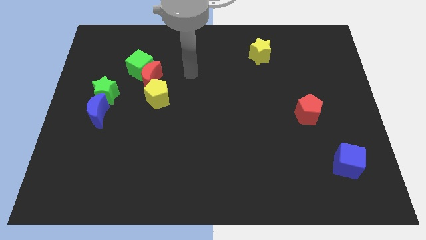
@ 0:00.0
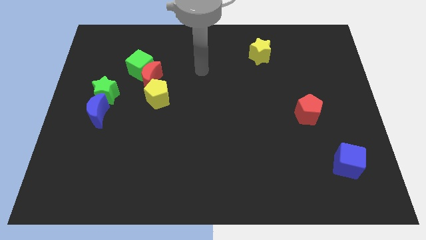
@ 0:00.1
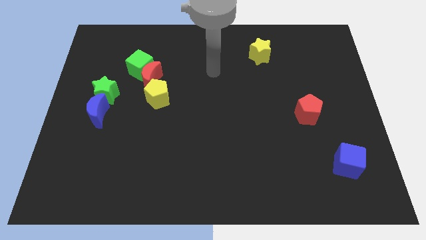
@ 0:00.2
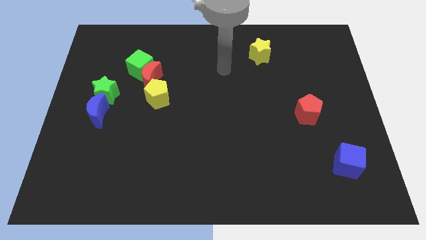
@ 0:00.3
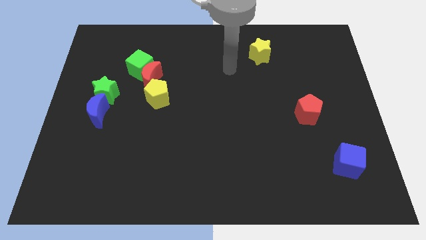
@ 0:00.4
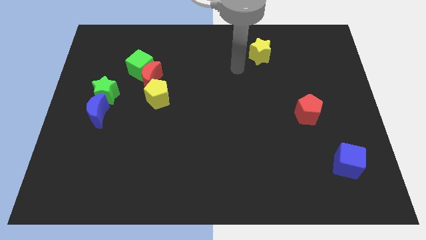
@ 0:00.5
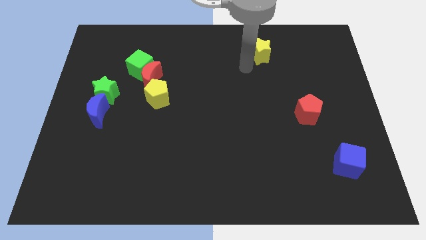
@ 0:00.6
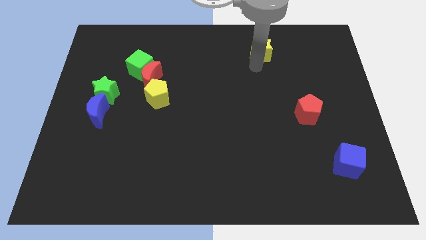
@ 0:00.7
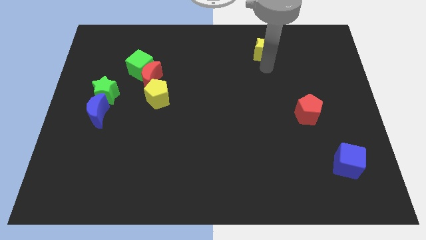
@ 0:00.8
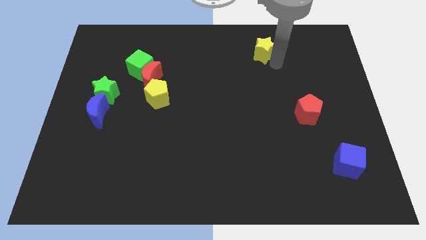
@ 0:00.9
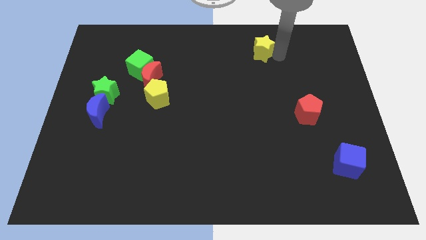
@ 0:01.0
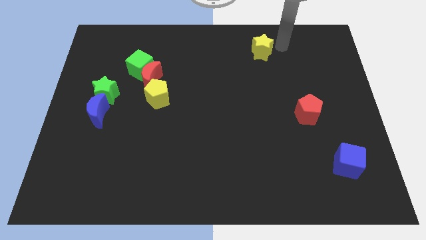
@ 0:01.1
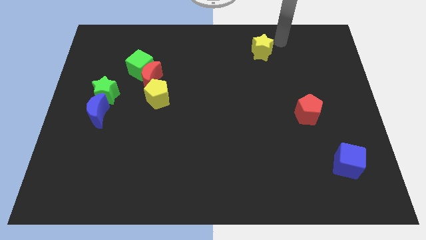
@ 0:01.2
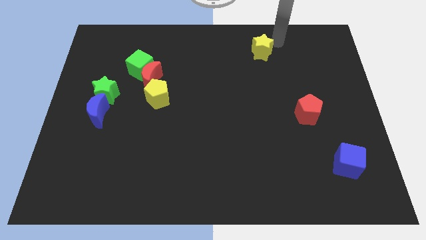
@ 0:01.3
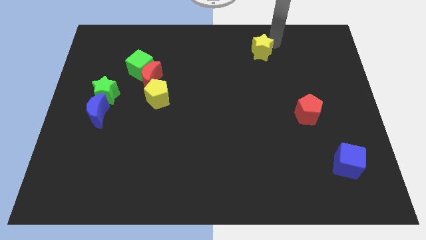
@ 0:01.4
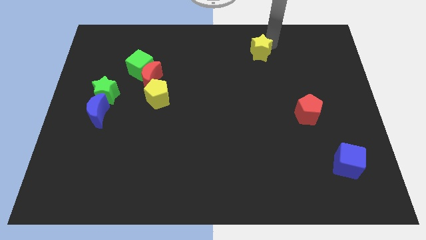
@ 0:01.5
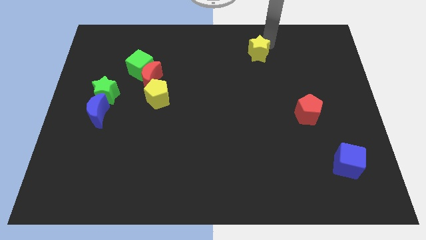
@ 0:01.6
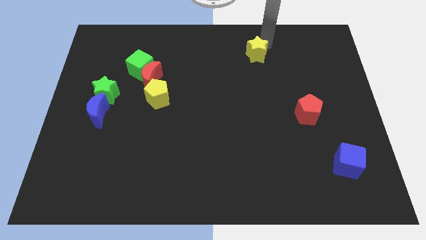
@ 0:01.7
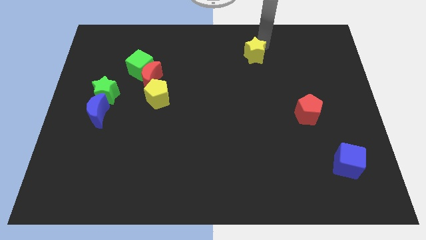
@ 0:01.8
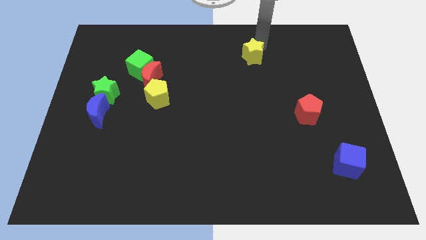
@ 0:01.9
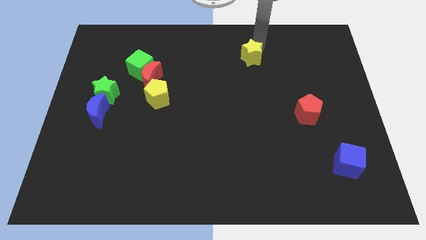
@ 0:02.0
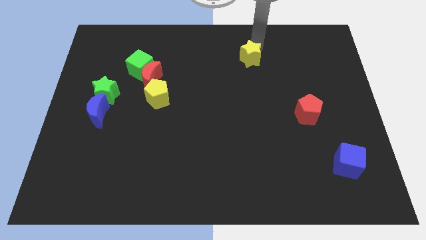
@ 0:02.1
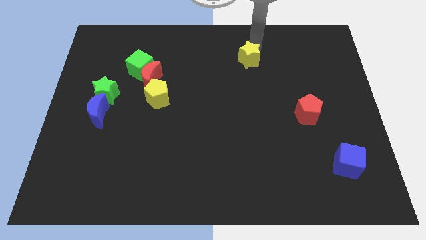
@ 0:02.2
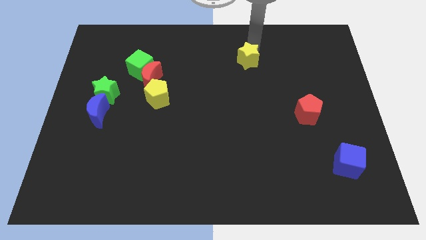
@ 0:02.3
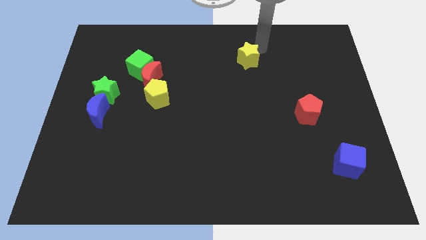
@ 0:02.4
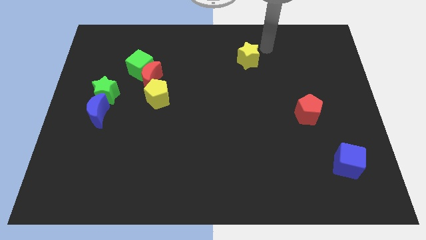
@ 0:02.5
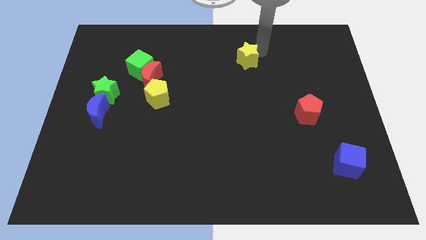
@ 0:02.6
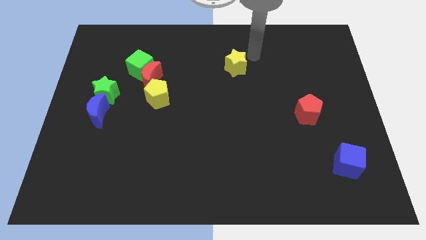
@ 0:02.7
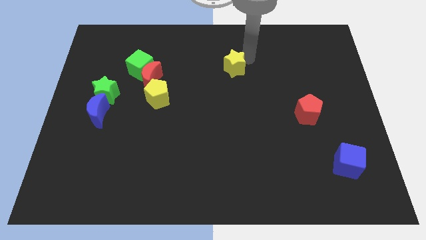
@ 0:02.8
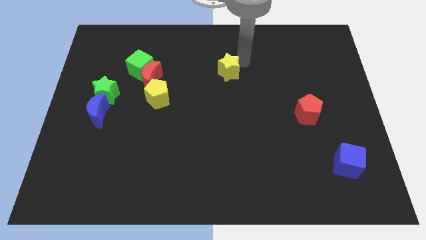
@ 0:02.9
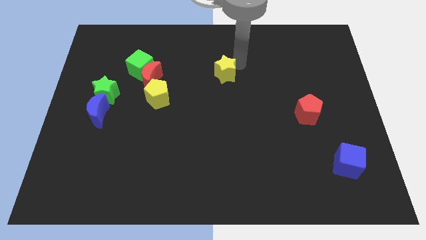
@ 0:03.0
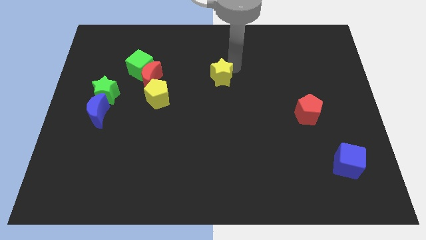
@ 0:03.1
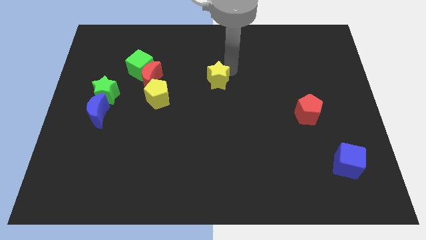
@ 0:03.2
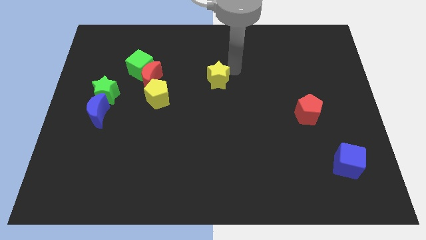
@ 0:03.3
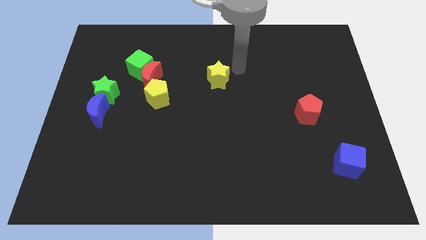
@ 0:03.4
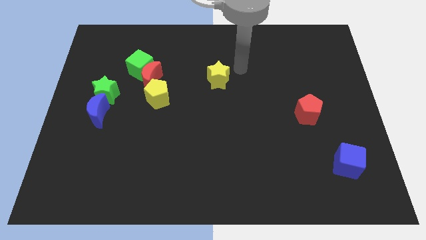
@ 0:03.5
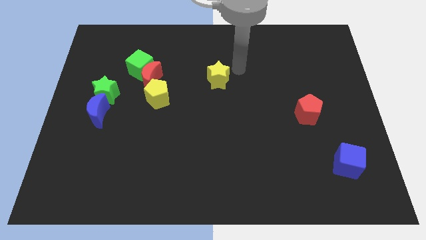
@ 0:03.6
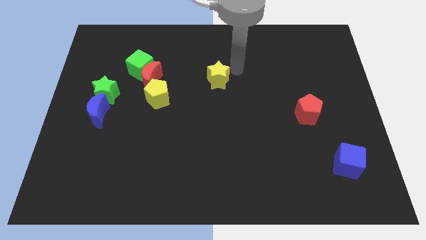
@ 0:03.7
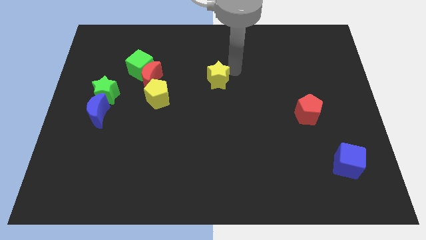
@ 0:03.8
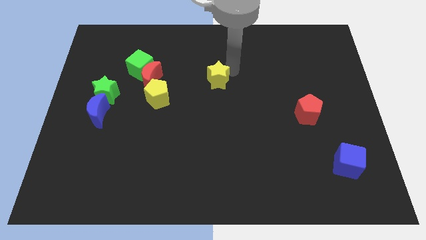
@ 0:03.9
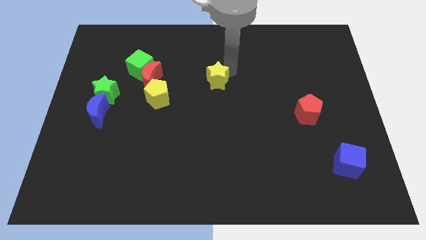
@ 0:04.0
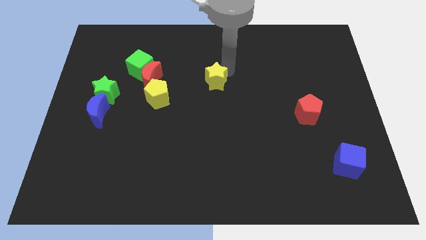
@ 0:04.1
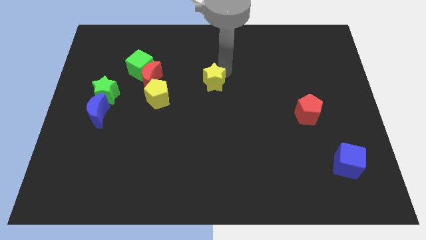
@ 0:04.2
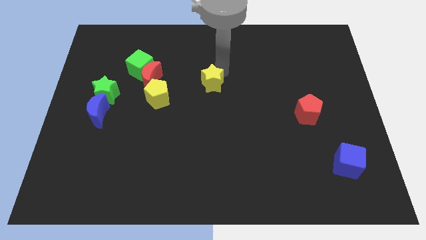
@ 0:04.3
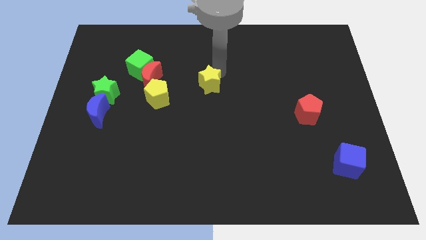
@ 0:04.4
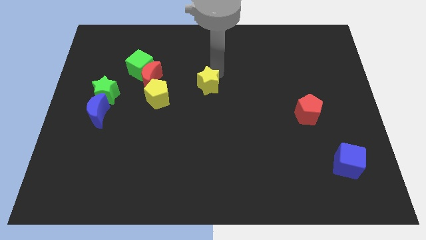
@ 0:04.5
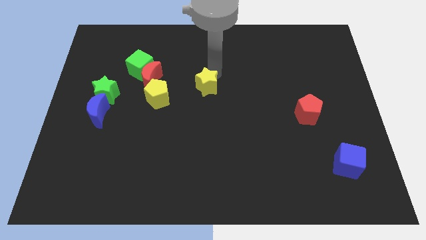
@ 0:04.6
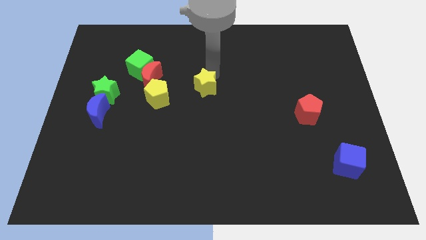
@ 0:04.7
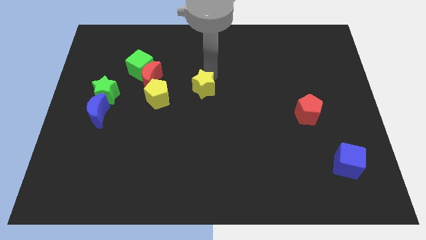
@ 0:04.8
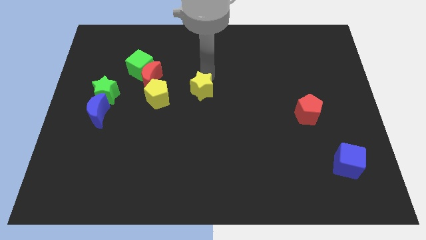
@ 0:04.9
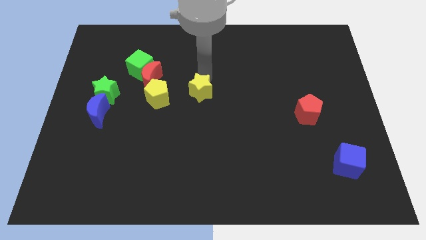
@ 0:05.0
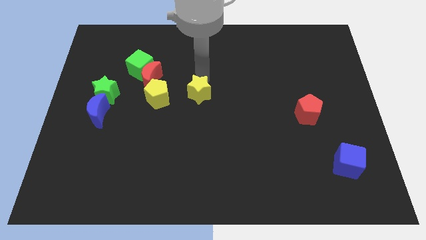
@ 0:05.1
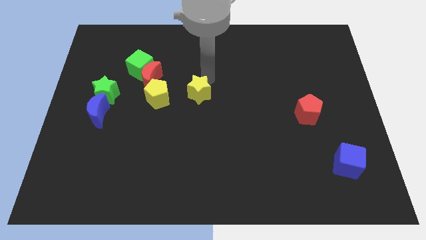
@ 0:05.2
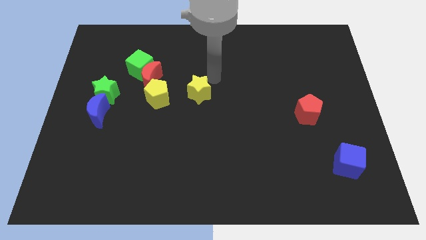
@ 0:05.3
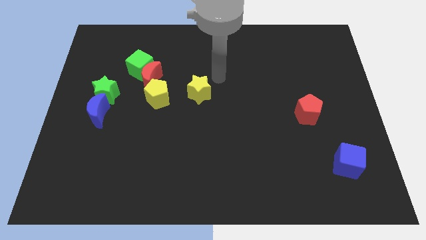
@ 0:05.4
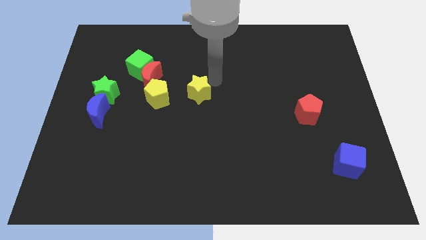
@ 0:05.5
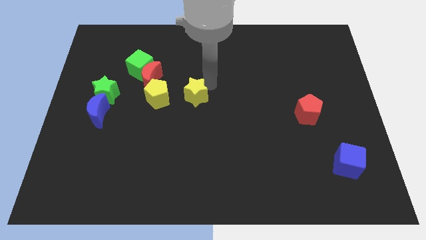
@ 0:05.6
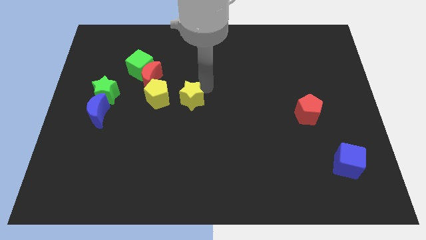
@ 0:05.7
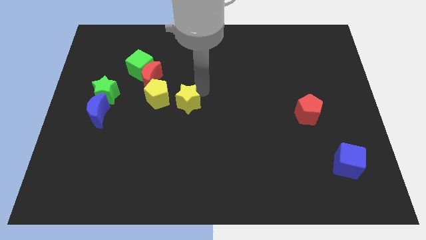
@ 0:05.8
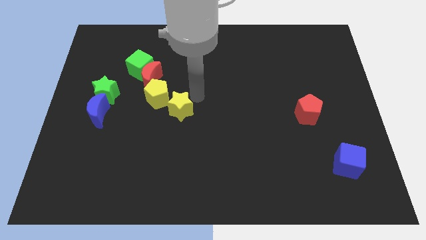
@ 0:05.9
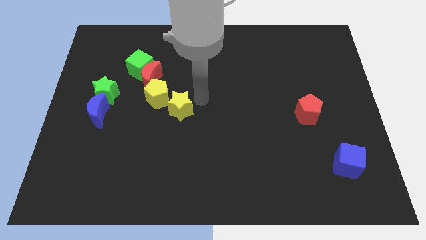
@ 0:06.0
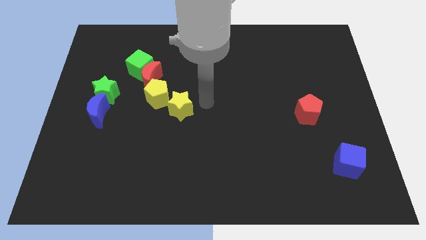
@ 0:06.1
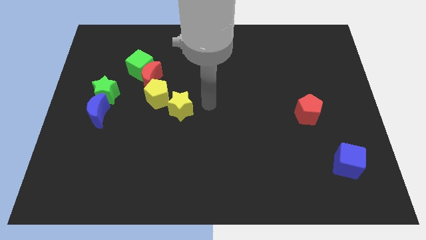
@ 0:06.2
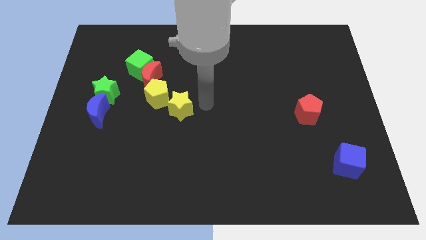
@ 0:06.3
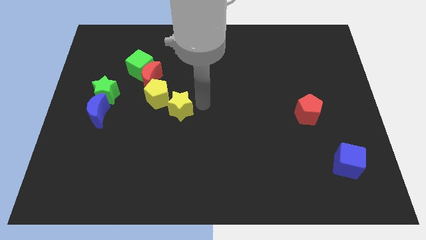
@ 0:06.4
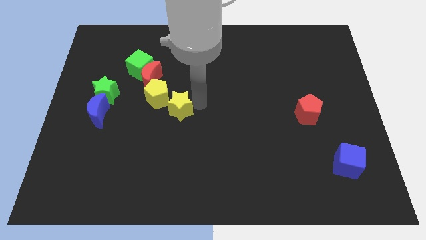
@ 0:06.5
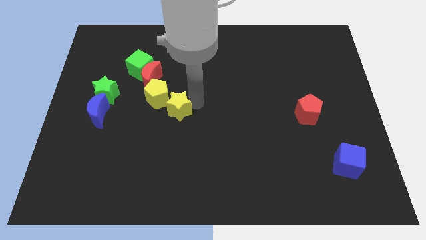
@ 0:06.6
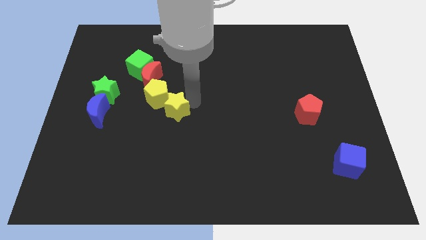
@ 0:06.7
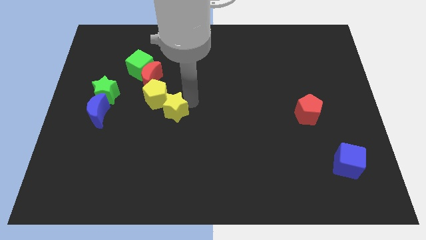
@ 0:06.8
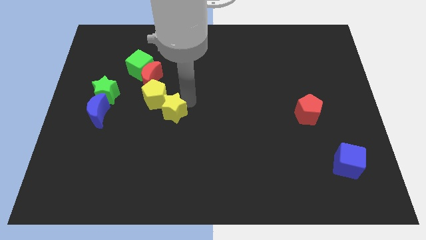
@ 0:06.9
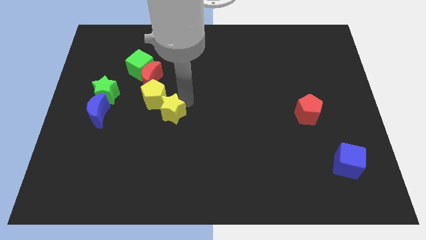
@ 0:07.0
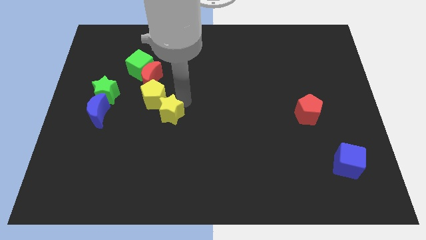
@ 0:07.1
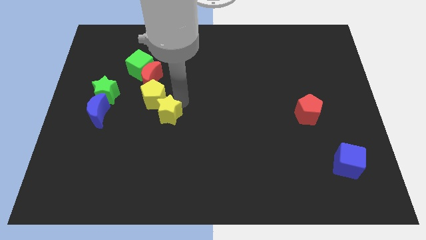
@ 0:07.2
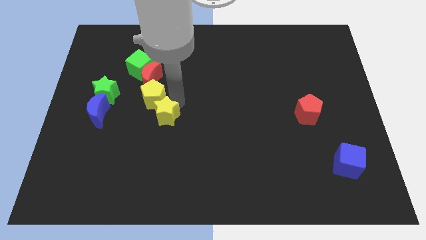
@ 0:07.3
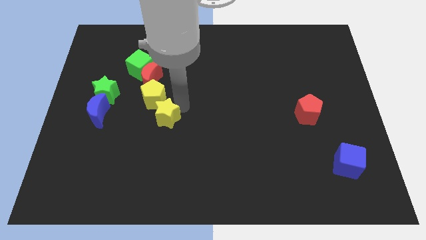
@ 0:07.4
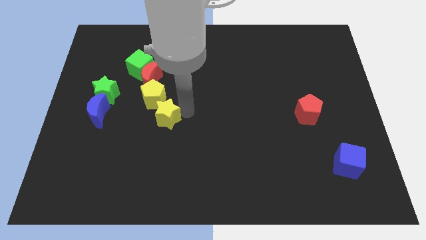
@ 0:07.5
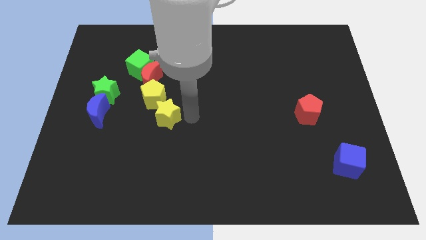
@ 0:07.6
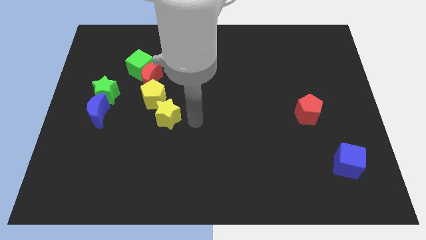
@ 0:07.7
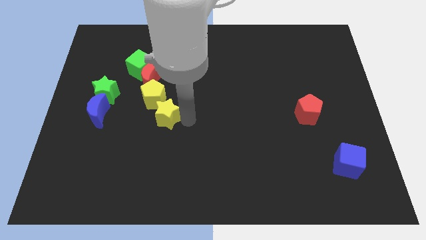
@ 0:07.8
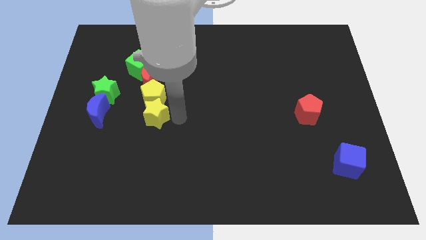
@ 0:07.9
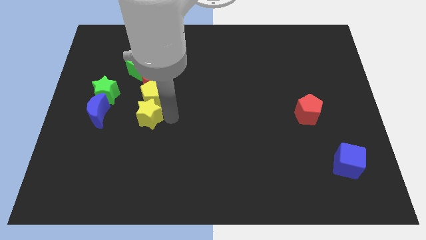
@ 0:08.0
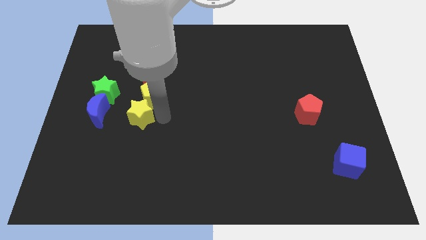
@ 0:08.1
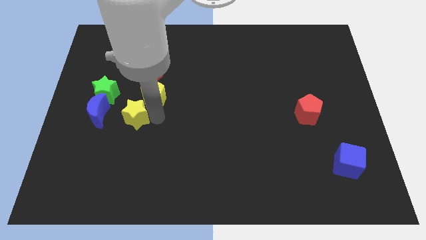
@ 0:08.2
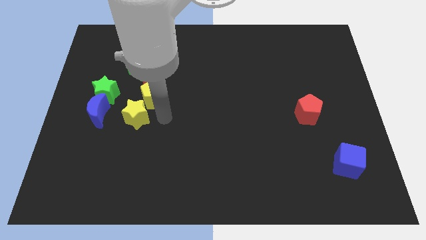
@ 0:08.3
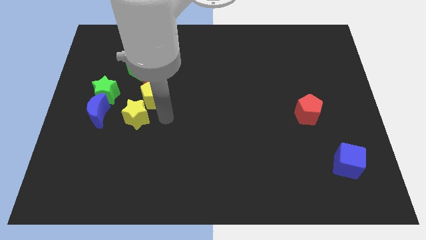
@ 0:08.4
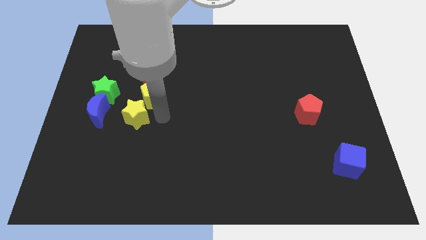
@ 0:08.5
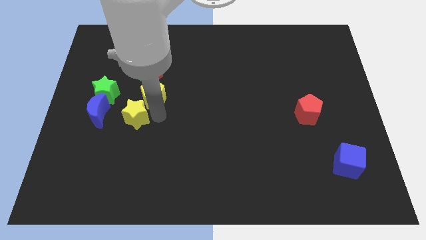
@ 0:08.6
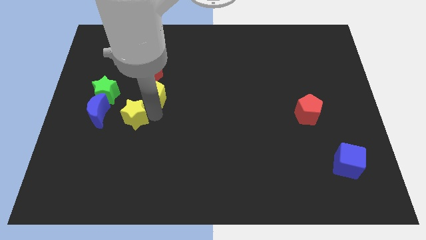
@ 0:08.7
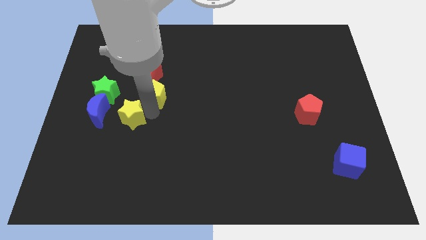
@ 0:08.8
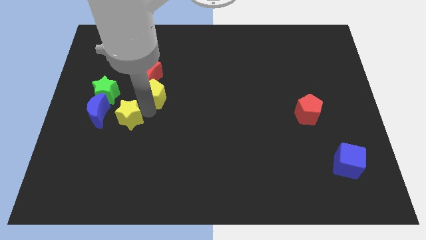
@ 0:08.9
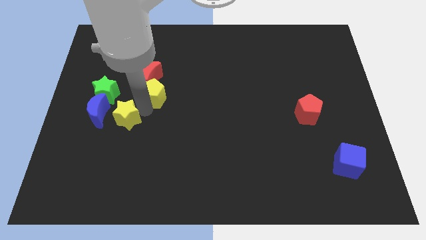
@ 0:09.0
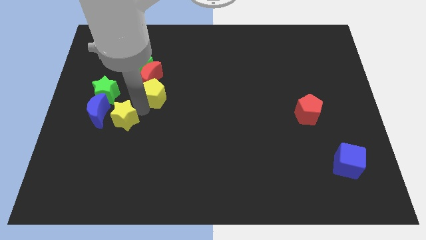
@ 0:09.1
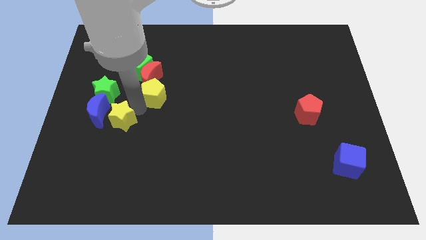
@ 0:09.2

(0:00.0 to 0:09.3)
put the yellow star to the blue moon
